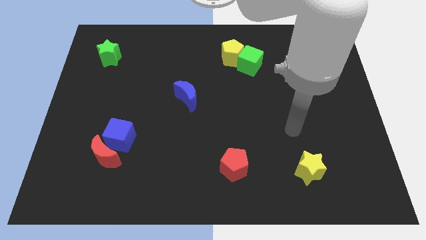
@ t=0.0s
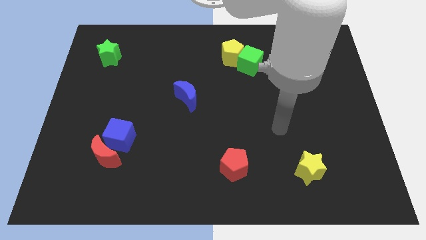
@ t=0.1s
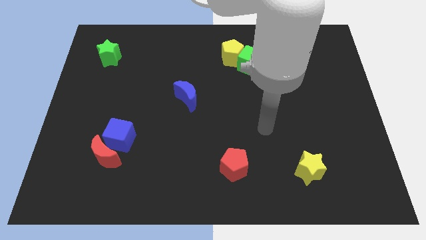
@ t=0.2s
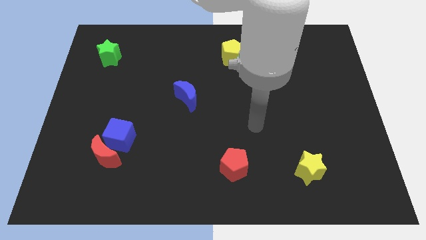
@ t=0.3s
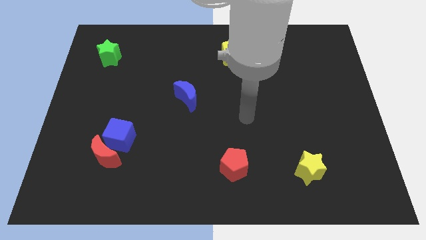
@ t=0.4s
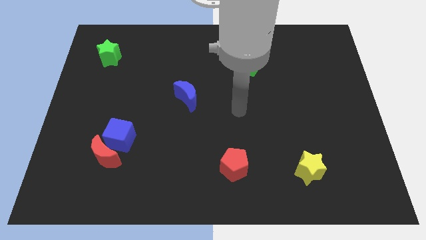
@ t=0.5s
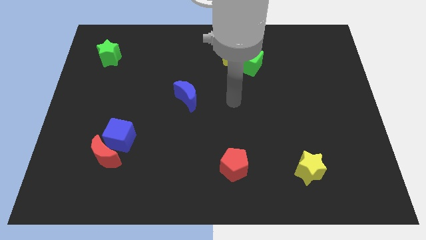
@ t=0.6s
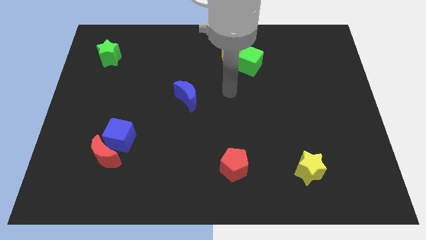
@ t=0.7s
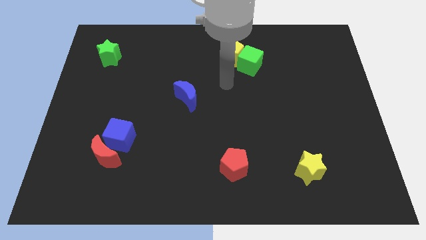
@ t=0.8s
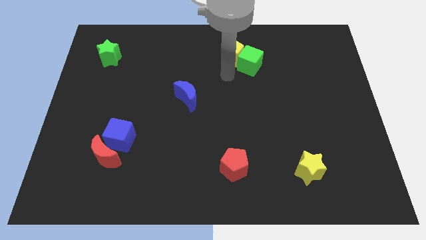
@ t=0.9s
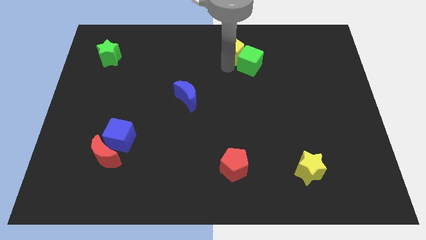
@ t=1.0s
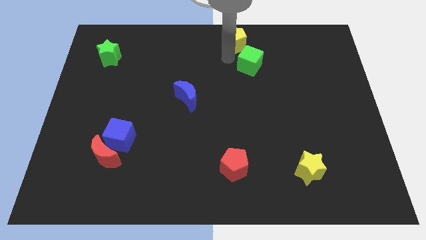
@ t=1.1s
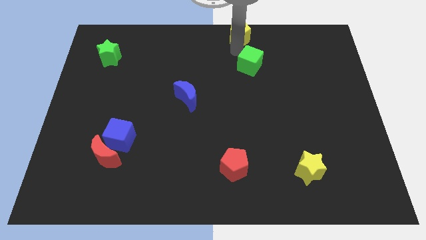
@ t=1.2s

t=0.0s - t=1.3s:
pull the green cube apart from the yellow pentagon

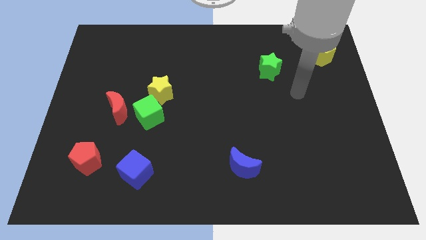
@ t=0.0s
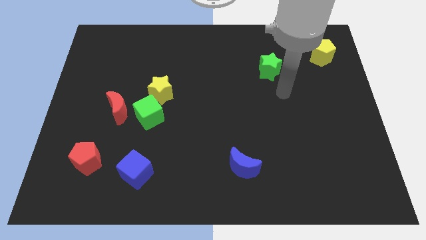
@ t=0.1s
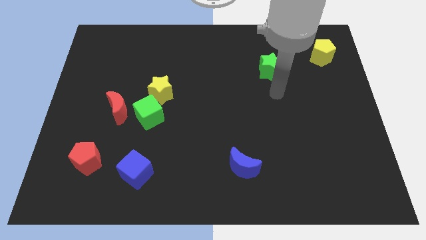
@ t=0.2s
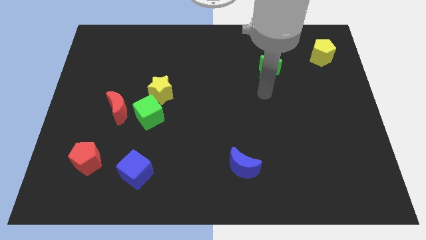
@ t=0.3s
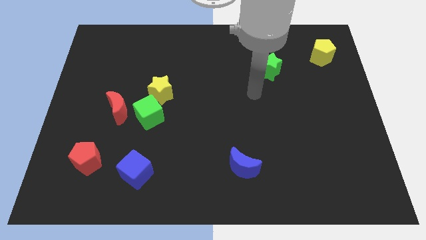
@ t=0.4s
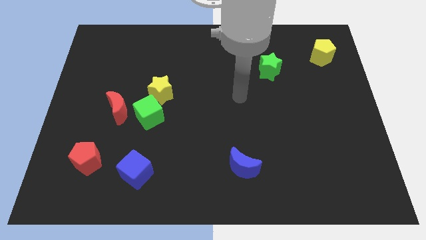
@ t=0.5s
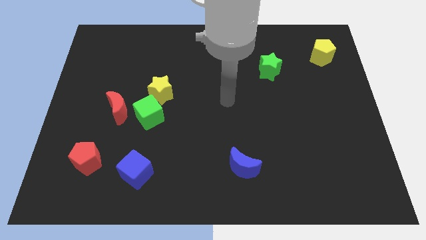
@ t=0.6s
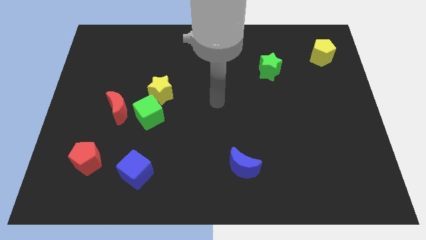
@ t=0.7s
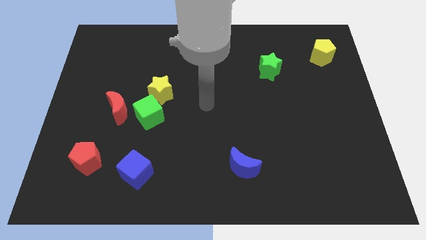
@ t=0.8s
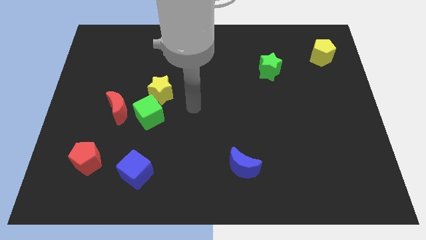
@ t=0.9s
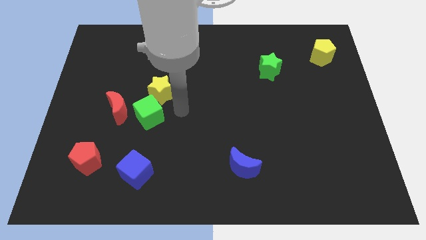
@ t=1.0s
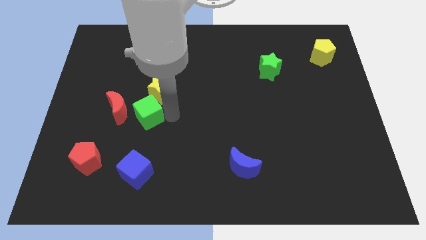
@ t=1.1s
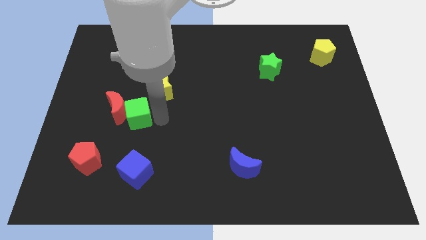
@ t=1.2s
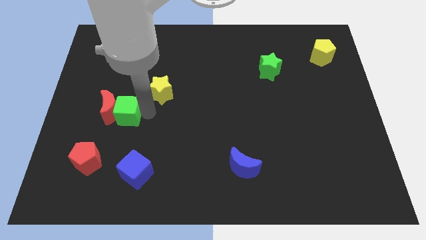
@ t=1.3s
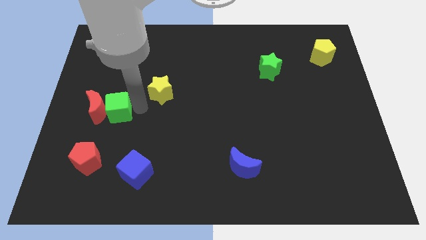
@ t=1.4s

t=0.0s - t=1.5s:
separate the yellow star from the green cube

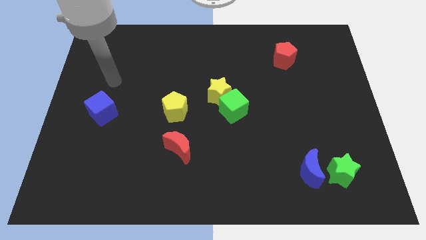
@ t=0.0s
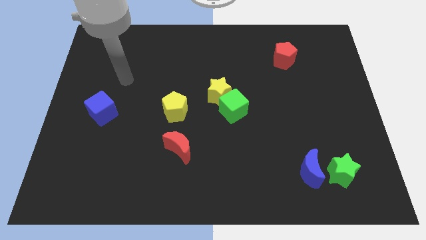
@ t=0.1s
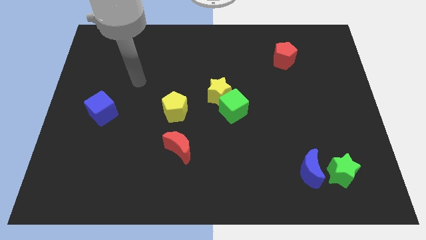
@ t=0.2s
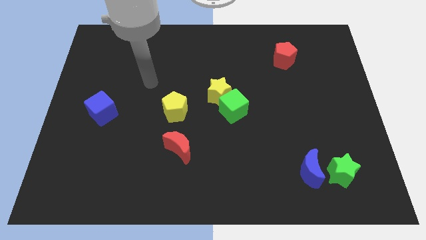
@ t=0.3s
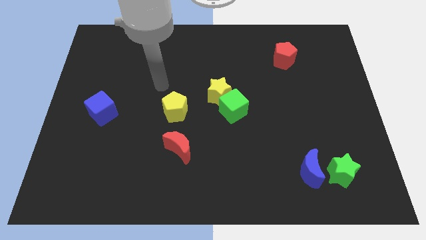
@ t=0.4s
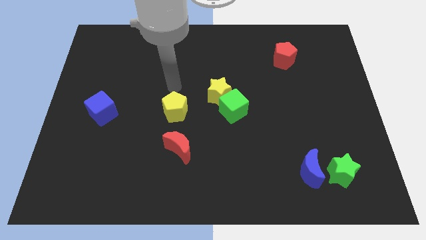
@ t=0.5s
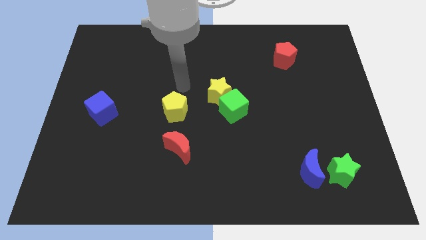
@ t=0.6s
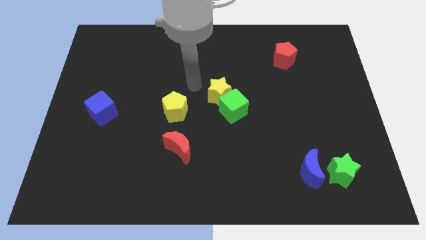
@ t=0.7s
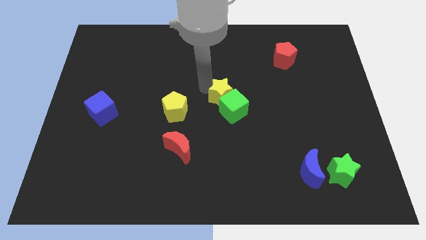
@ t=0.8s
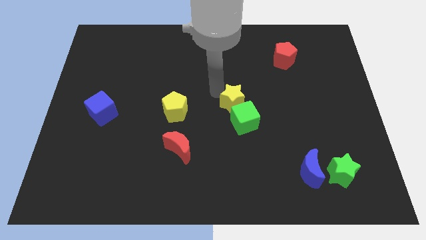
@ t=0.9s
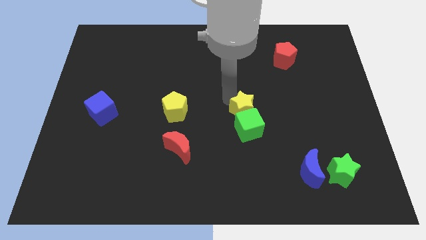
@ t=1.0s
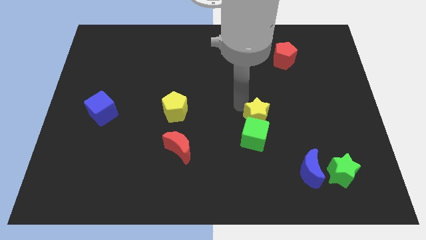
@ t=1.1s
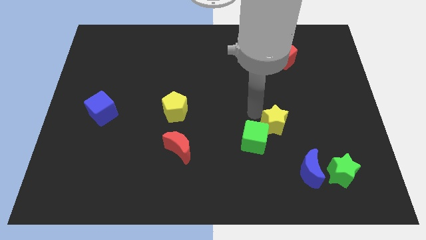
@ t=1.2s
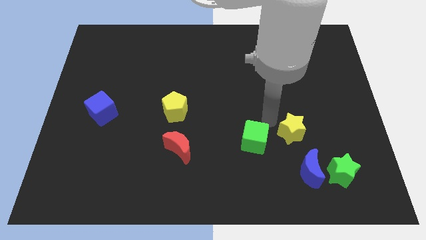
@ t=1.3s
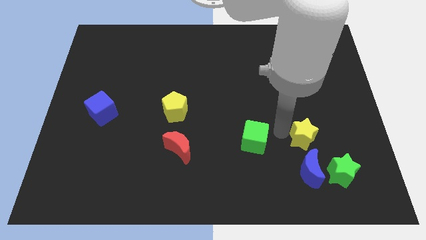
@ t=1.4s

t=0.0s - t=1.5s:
separate the green cube from the yellow star

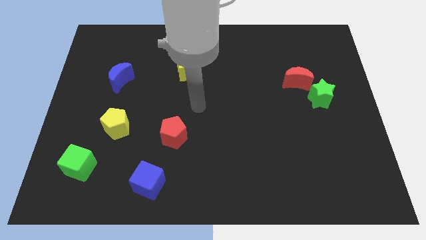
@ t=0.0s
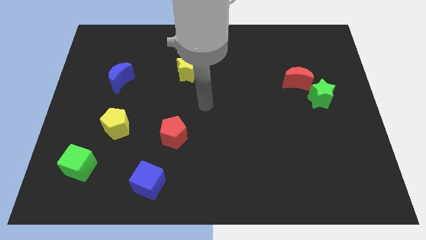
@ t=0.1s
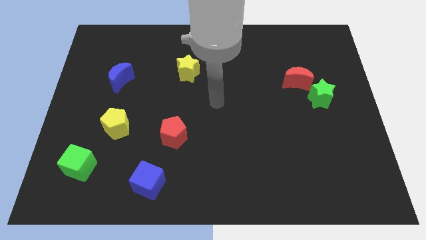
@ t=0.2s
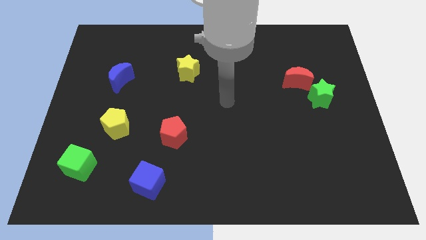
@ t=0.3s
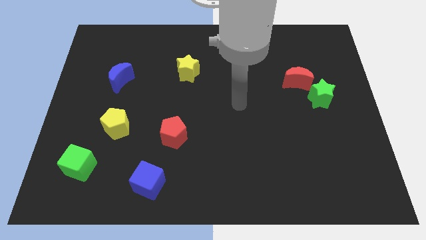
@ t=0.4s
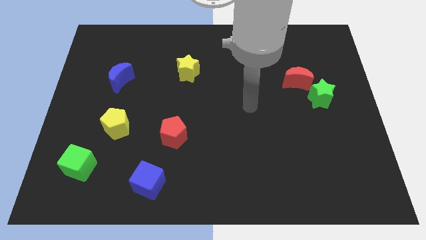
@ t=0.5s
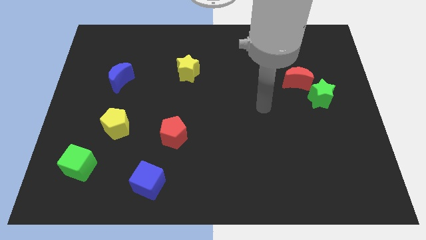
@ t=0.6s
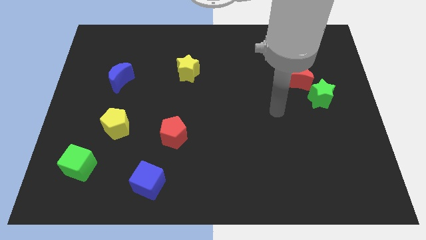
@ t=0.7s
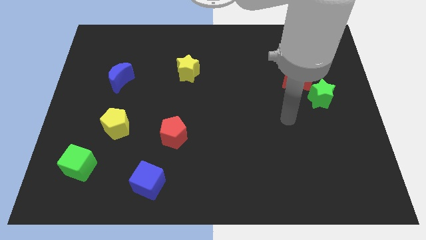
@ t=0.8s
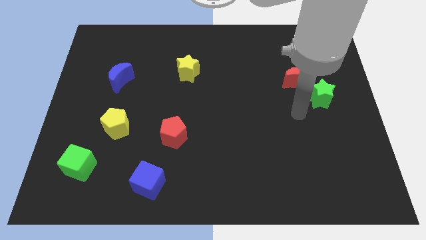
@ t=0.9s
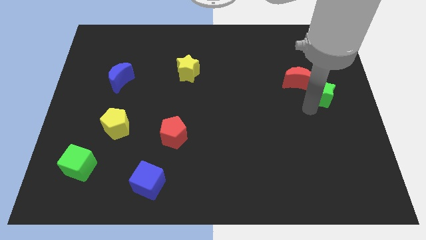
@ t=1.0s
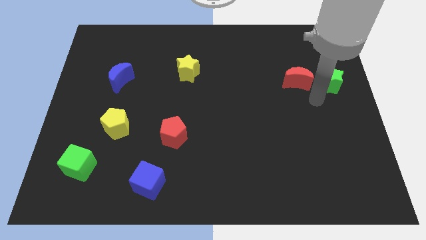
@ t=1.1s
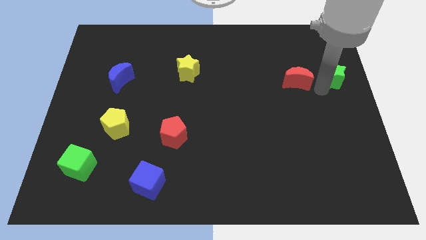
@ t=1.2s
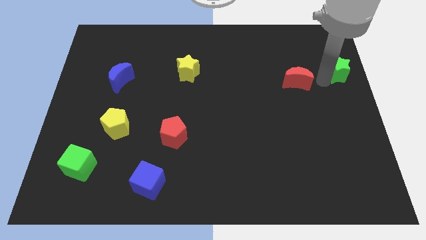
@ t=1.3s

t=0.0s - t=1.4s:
pull the red moon apart from the green star

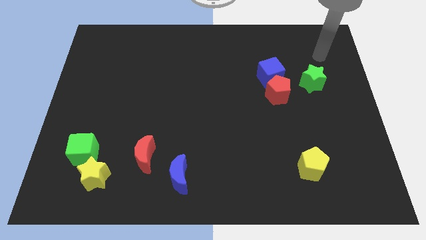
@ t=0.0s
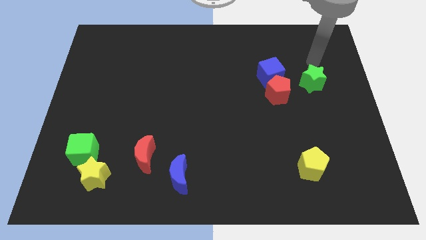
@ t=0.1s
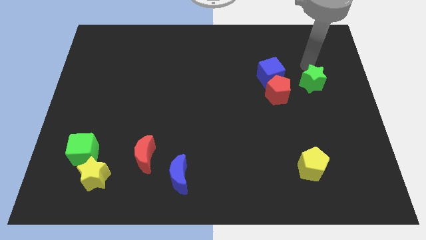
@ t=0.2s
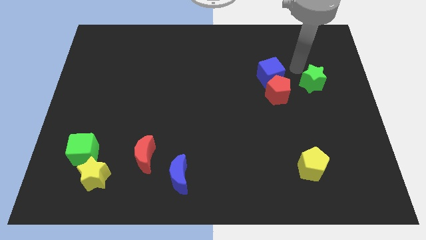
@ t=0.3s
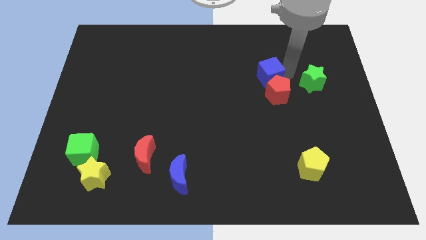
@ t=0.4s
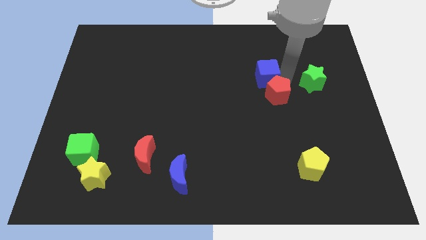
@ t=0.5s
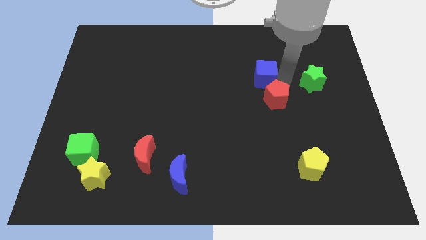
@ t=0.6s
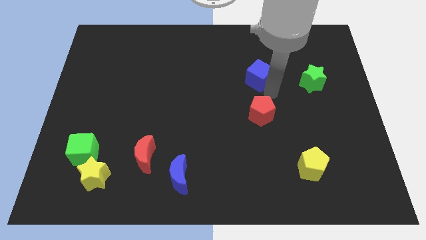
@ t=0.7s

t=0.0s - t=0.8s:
pull the blue cube apart from the red pentagon

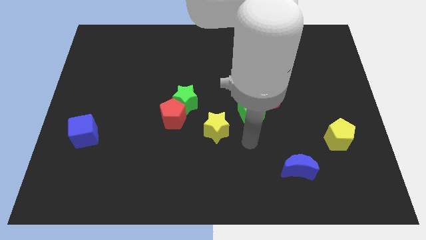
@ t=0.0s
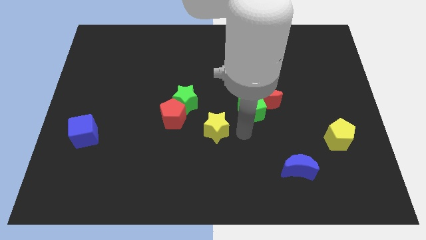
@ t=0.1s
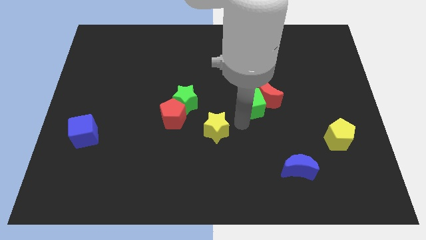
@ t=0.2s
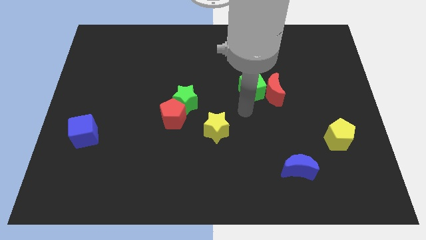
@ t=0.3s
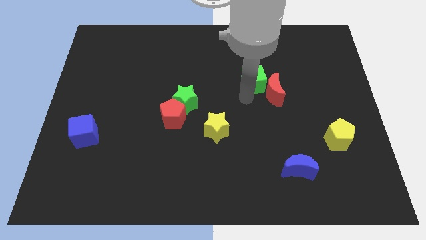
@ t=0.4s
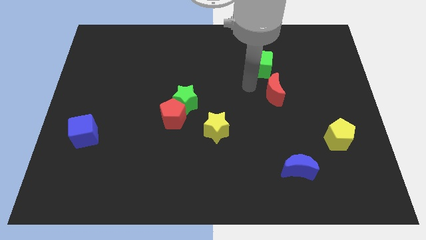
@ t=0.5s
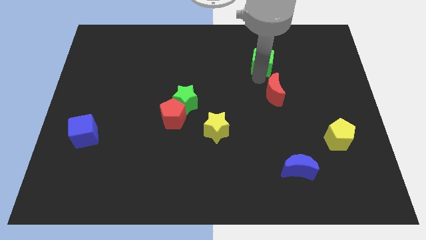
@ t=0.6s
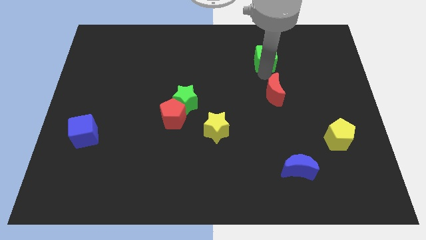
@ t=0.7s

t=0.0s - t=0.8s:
pull the red moon apart from the green cube

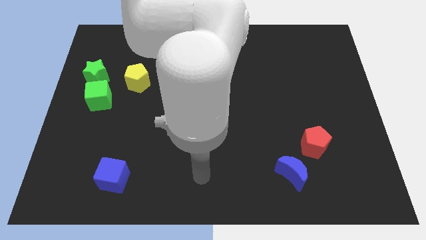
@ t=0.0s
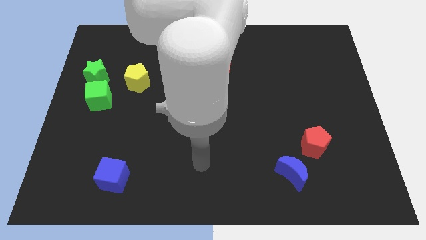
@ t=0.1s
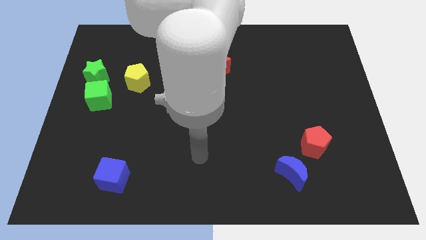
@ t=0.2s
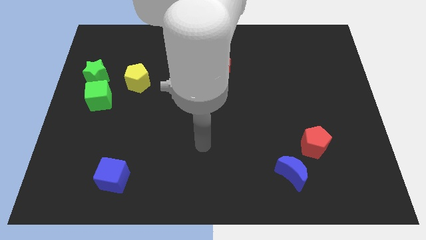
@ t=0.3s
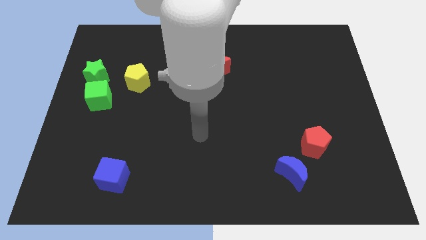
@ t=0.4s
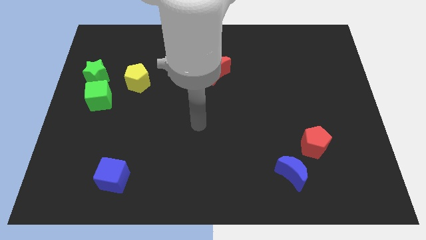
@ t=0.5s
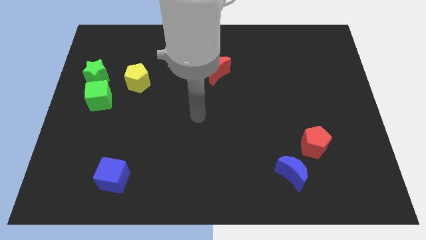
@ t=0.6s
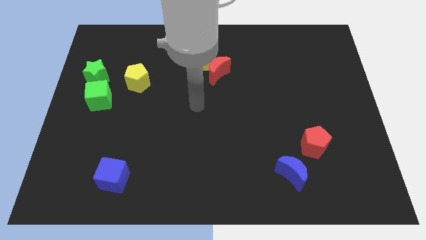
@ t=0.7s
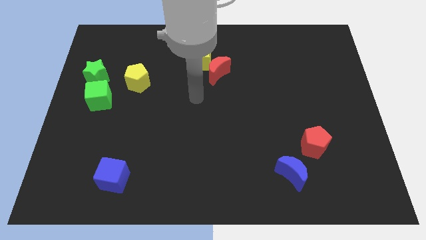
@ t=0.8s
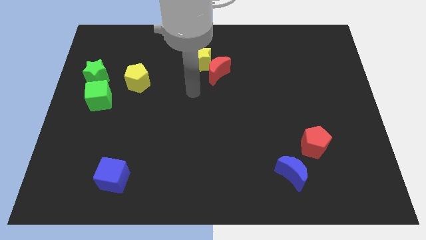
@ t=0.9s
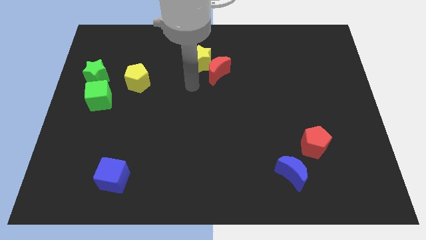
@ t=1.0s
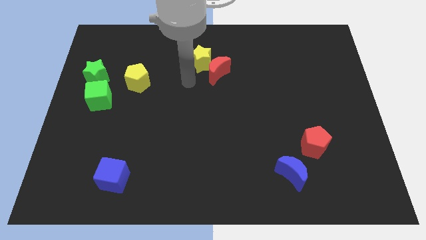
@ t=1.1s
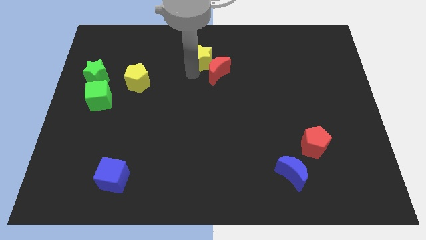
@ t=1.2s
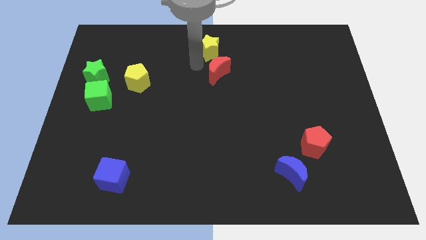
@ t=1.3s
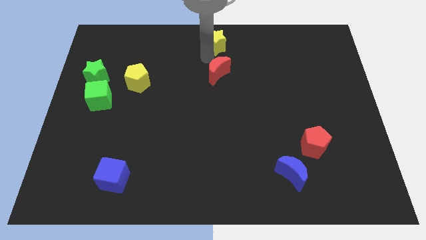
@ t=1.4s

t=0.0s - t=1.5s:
separate the red moon from the yellow star

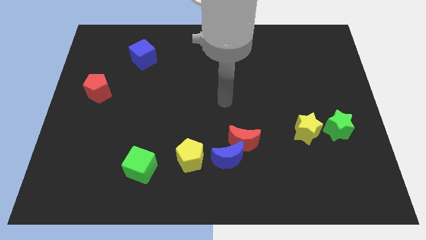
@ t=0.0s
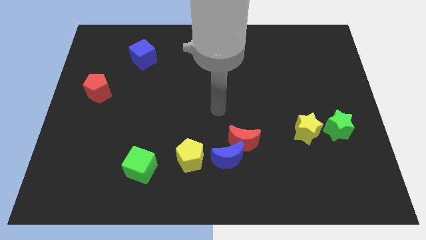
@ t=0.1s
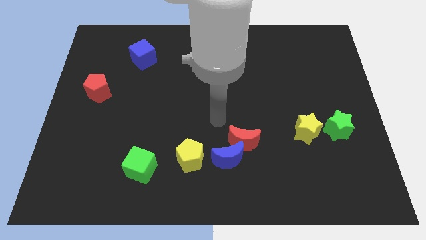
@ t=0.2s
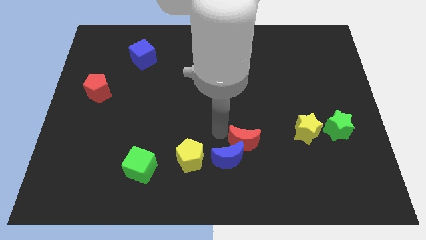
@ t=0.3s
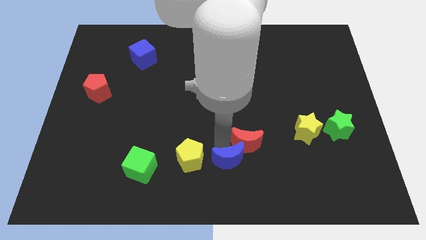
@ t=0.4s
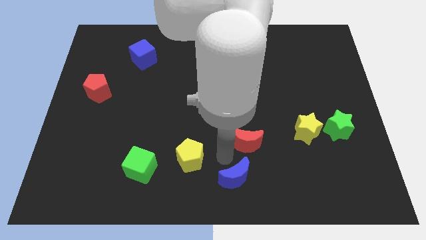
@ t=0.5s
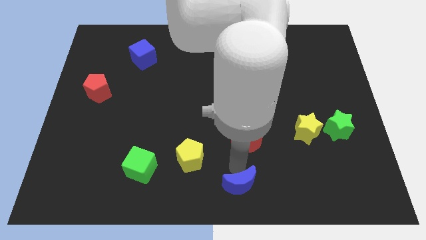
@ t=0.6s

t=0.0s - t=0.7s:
separate the red moon from the blue moon
